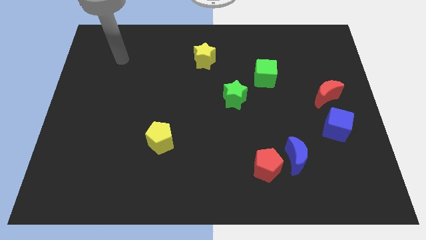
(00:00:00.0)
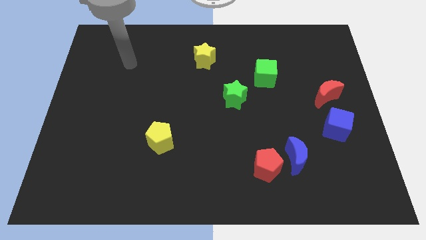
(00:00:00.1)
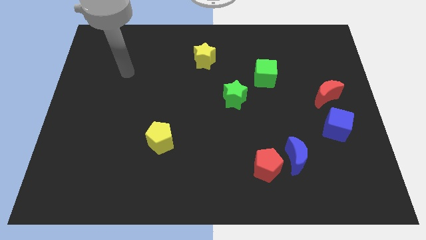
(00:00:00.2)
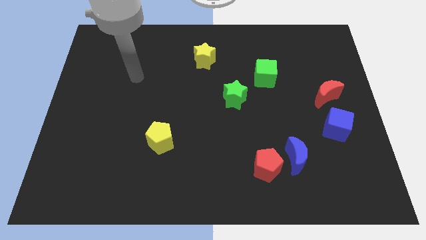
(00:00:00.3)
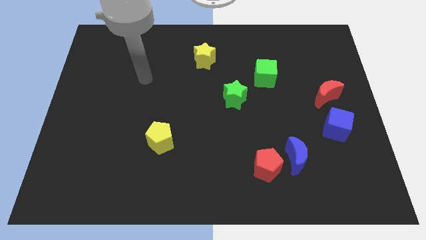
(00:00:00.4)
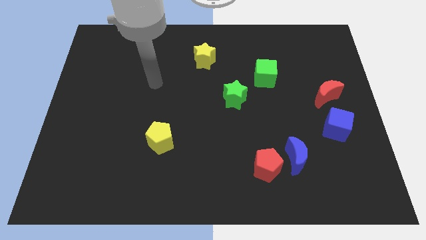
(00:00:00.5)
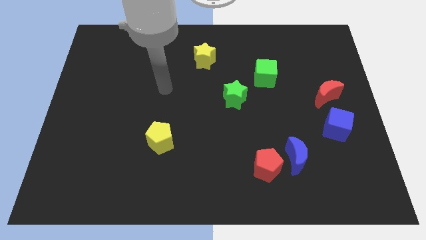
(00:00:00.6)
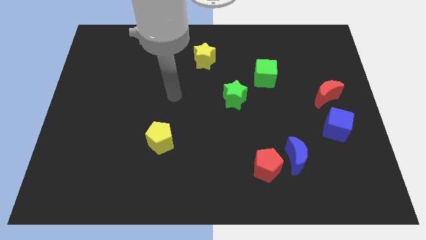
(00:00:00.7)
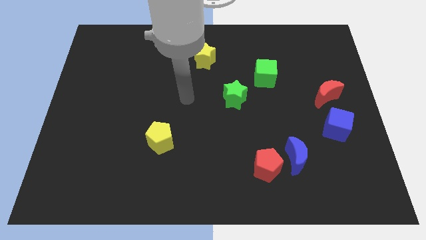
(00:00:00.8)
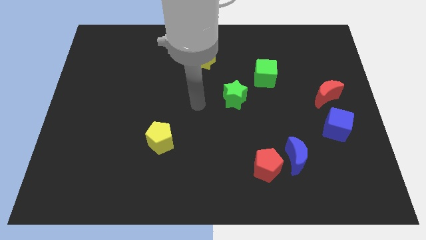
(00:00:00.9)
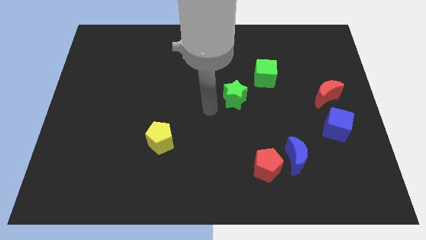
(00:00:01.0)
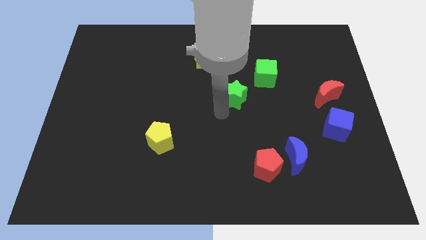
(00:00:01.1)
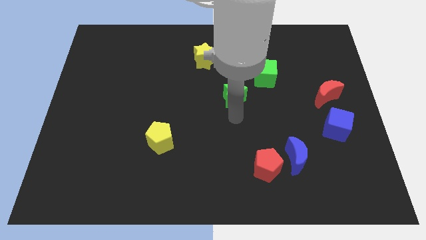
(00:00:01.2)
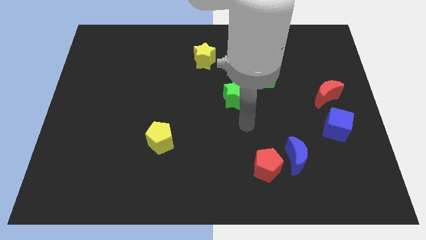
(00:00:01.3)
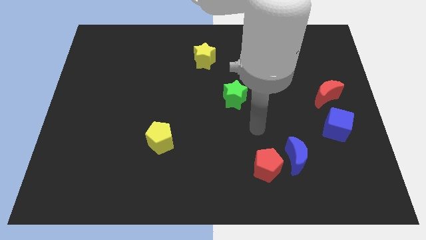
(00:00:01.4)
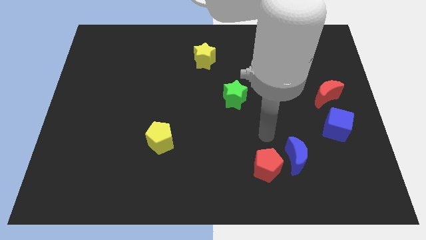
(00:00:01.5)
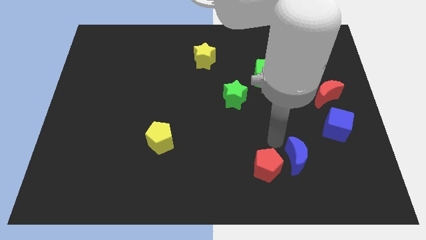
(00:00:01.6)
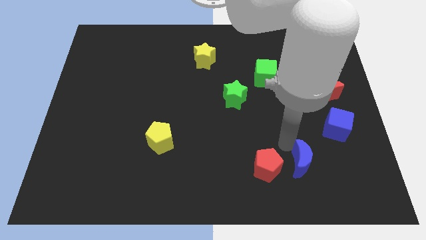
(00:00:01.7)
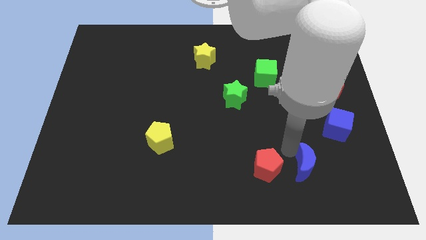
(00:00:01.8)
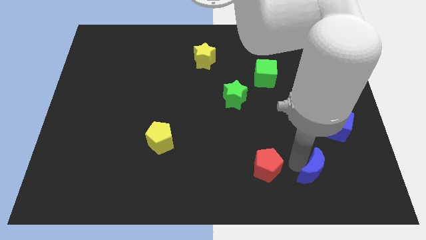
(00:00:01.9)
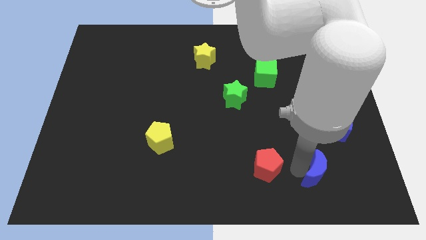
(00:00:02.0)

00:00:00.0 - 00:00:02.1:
pull the red pentagon apart from the blue moon

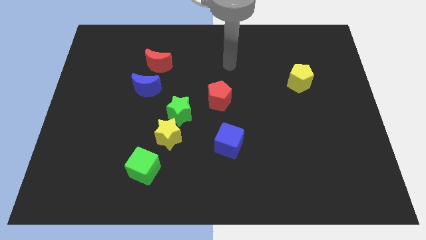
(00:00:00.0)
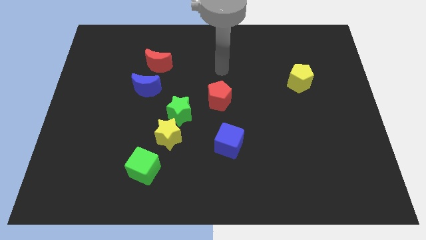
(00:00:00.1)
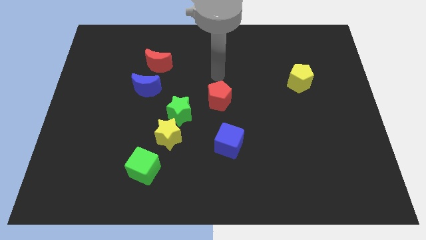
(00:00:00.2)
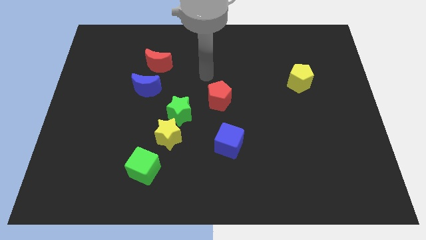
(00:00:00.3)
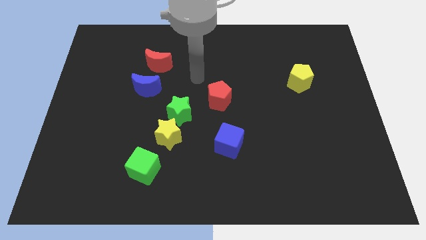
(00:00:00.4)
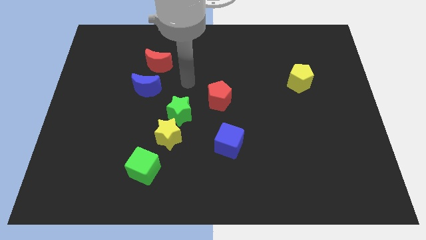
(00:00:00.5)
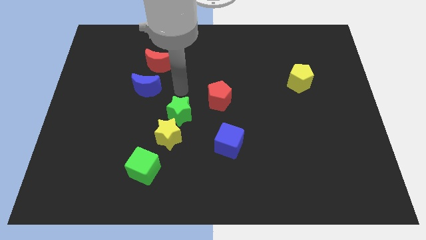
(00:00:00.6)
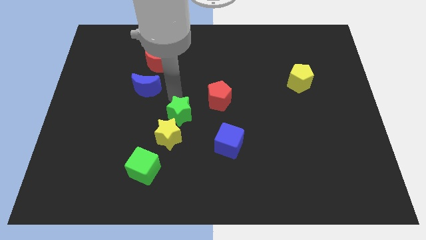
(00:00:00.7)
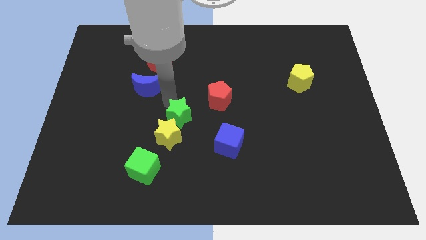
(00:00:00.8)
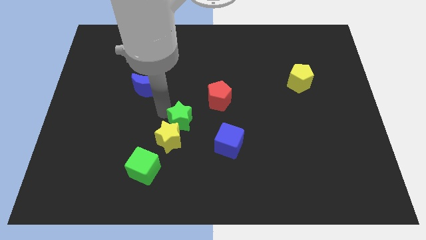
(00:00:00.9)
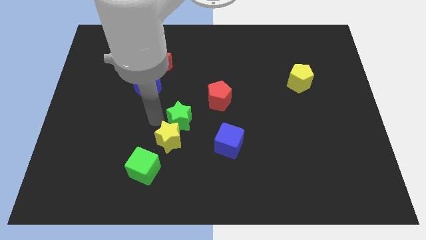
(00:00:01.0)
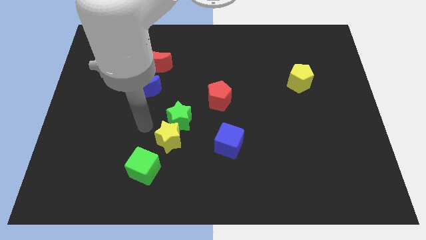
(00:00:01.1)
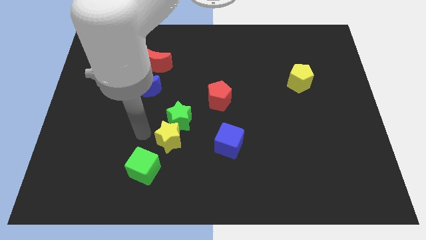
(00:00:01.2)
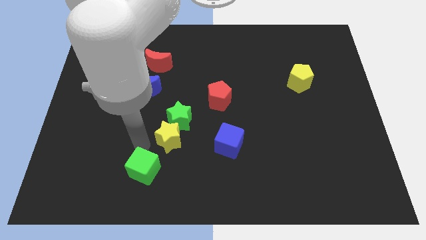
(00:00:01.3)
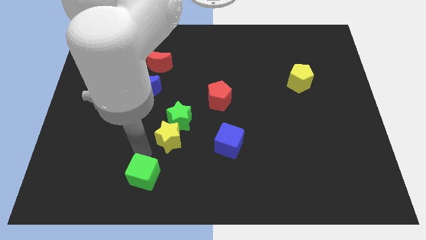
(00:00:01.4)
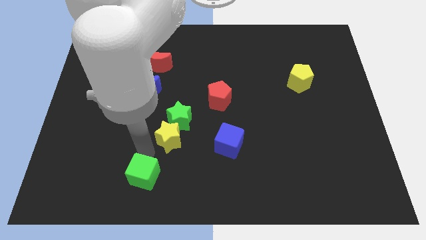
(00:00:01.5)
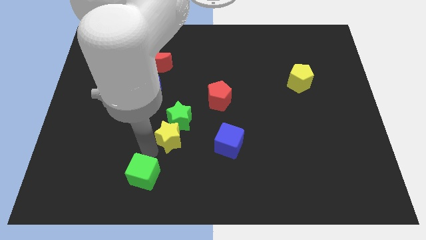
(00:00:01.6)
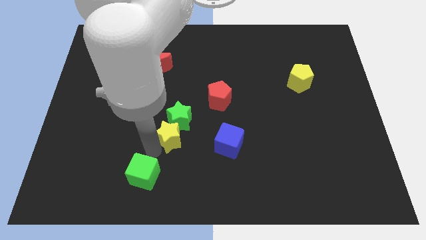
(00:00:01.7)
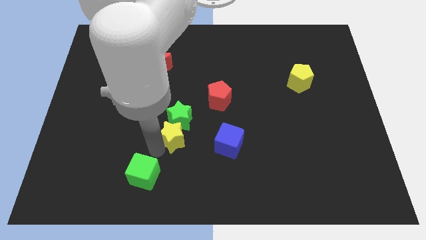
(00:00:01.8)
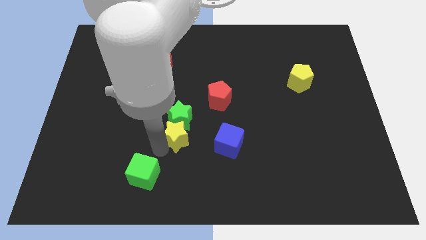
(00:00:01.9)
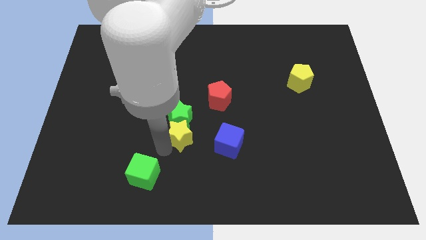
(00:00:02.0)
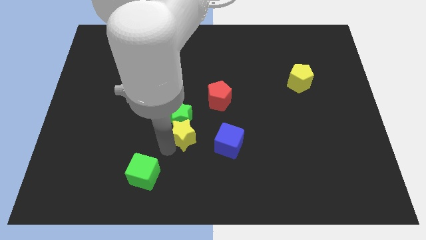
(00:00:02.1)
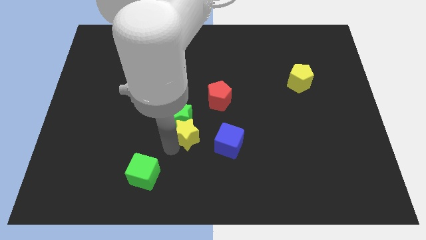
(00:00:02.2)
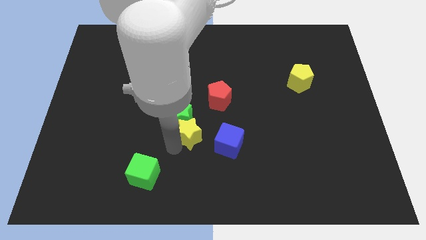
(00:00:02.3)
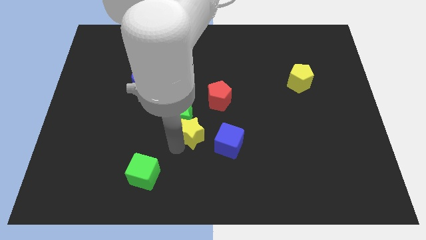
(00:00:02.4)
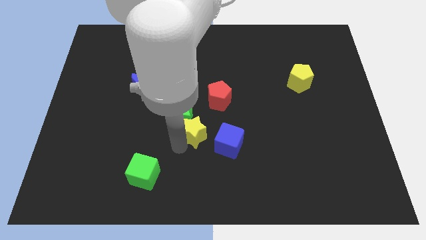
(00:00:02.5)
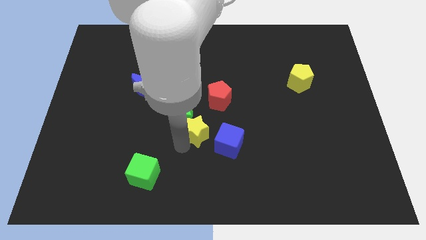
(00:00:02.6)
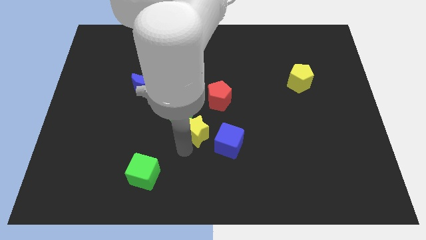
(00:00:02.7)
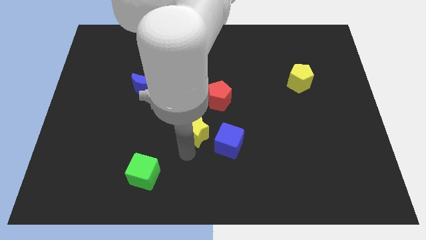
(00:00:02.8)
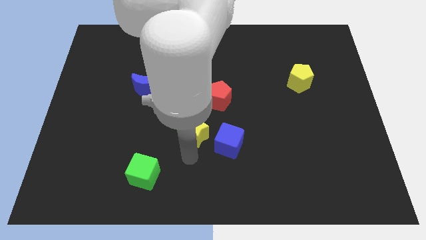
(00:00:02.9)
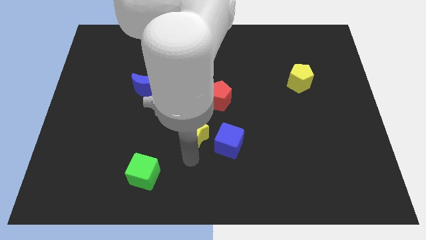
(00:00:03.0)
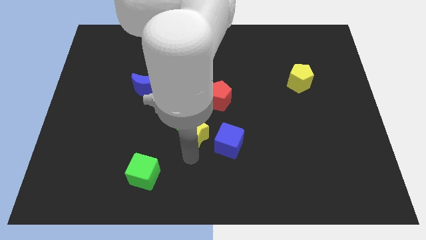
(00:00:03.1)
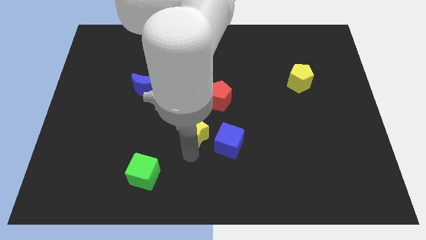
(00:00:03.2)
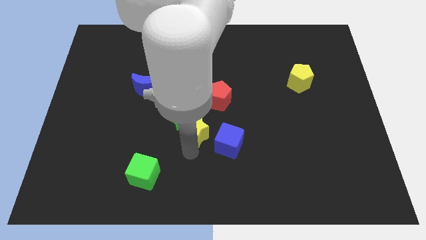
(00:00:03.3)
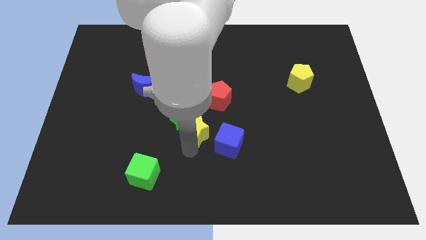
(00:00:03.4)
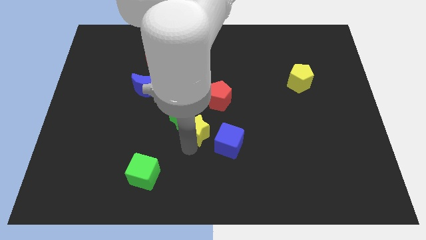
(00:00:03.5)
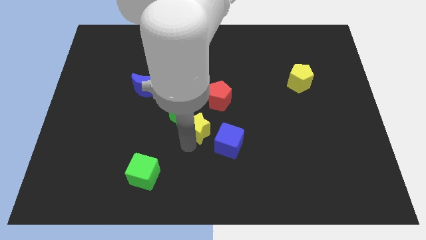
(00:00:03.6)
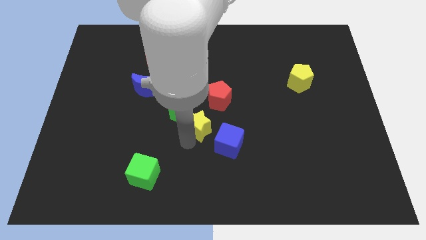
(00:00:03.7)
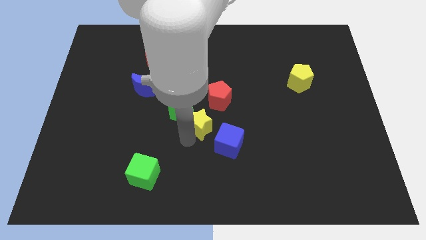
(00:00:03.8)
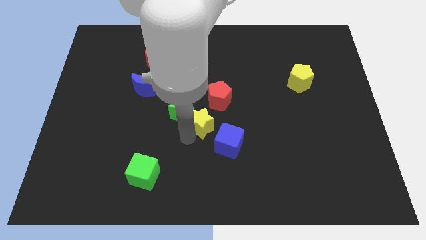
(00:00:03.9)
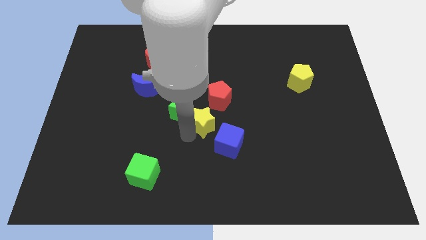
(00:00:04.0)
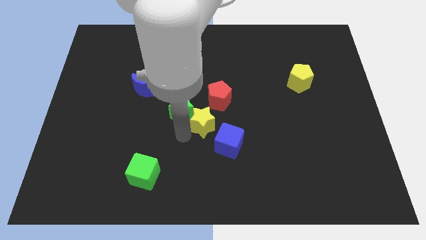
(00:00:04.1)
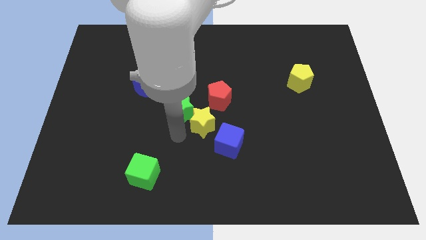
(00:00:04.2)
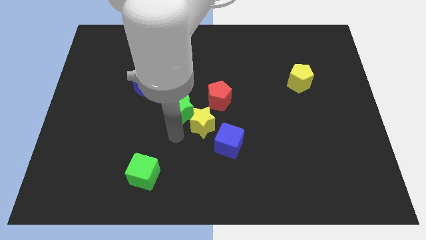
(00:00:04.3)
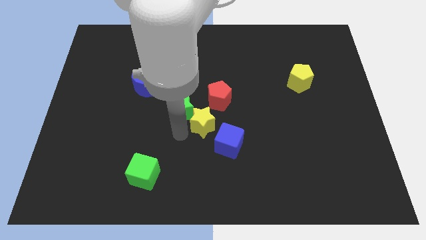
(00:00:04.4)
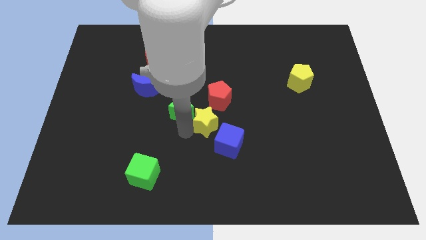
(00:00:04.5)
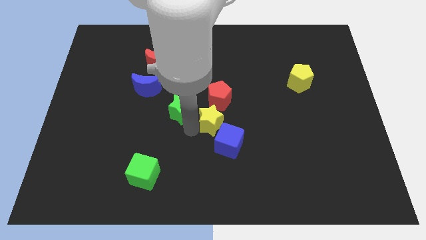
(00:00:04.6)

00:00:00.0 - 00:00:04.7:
move the yellow star away from the green star and green cube

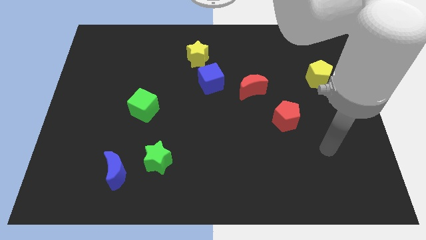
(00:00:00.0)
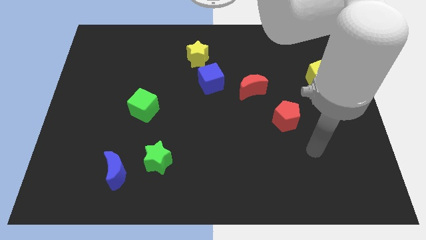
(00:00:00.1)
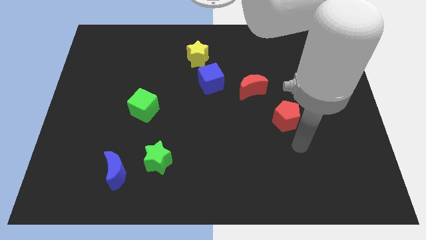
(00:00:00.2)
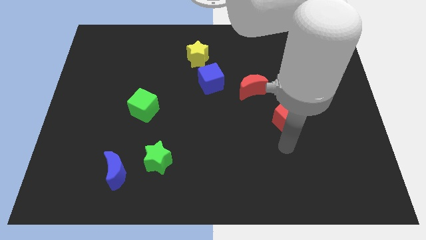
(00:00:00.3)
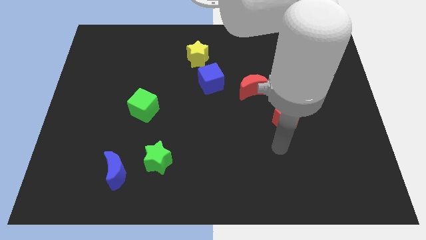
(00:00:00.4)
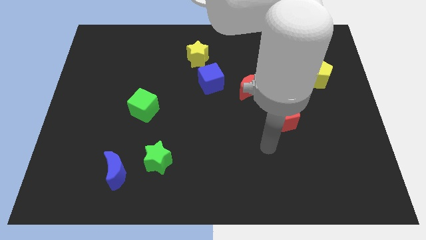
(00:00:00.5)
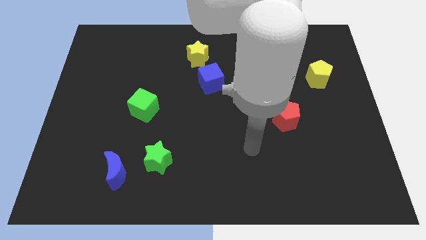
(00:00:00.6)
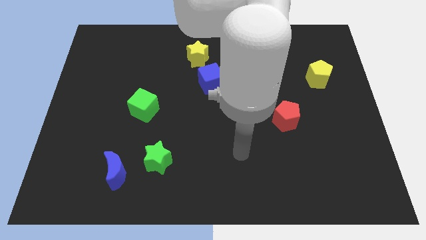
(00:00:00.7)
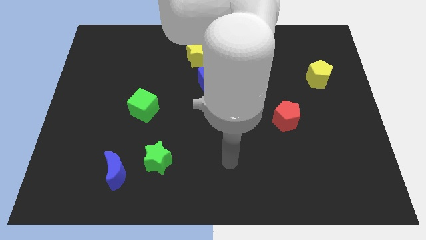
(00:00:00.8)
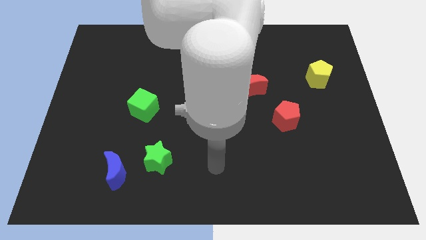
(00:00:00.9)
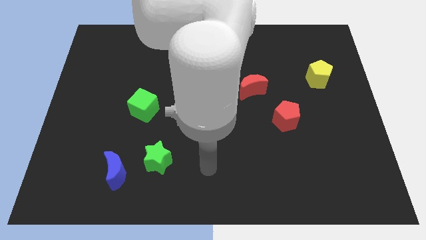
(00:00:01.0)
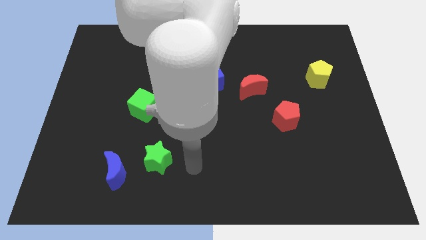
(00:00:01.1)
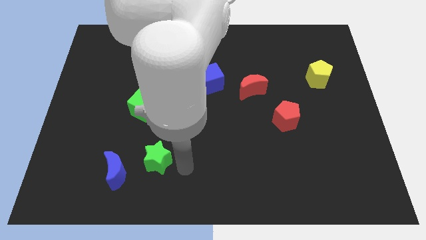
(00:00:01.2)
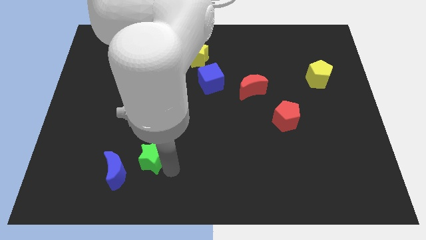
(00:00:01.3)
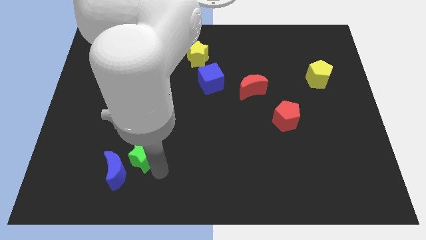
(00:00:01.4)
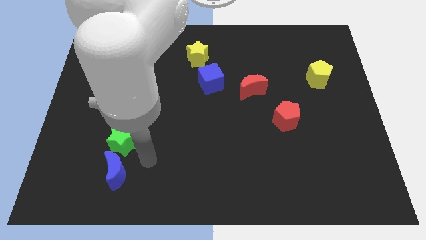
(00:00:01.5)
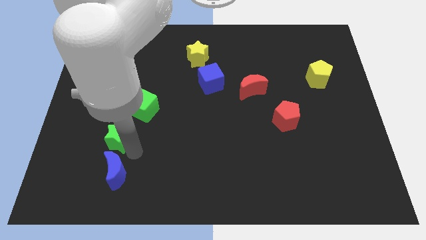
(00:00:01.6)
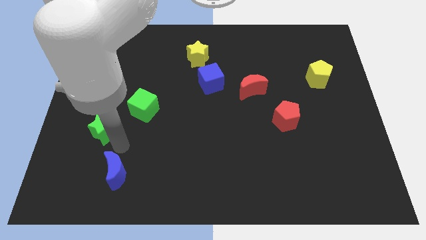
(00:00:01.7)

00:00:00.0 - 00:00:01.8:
separate the blue moon from the green star

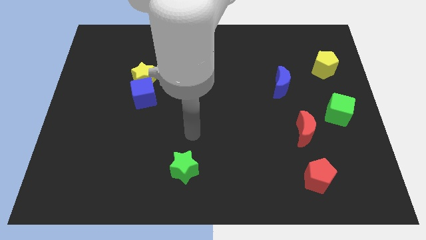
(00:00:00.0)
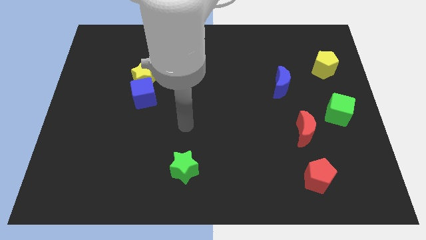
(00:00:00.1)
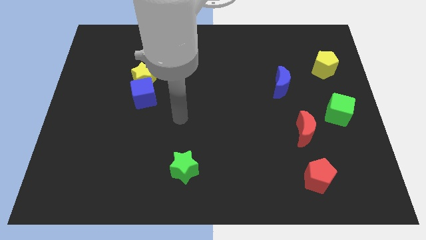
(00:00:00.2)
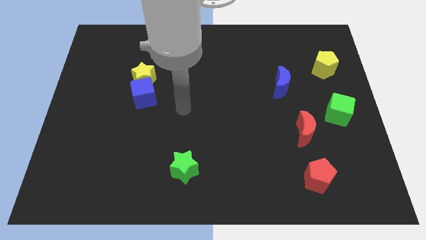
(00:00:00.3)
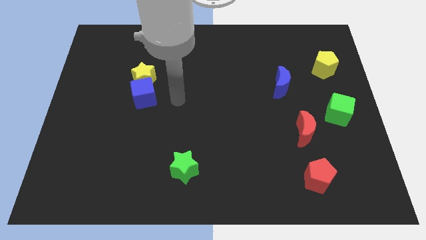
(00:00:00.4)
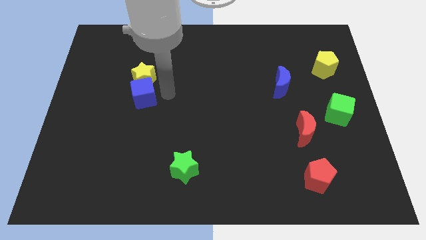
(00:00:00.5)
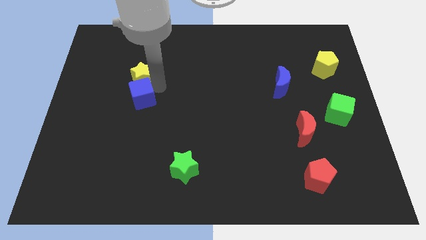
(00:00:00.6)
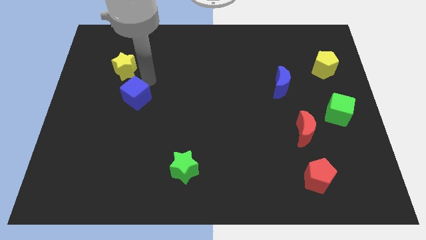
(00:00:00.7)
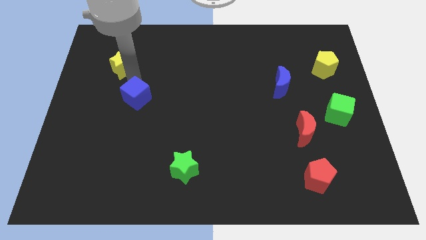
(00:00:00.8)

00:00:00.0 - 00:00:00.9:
move the blue cube away from the yellow star
